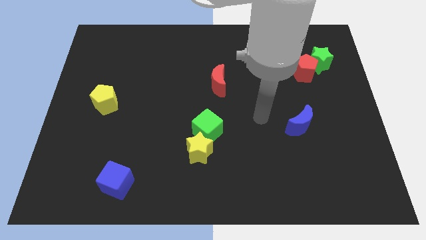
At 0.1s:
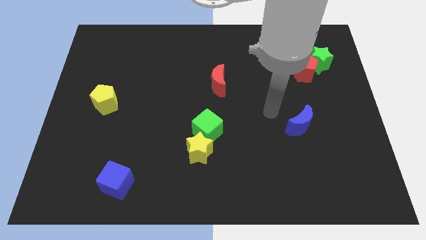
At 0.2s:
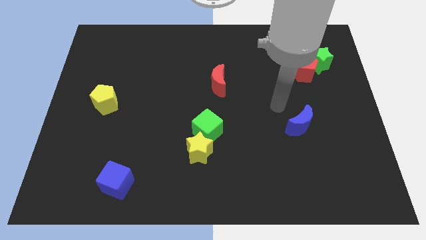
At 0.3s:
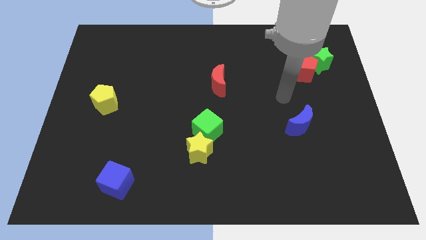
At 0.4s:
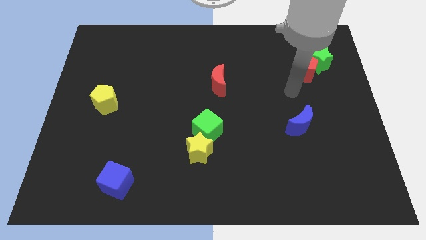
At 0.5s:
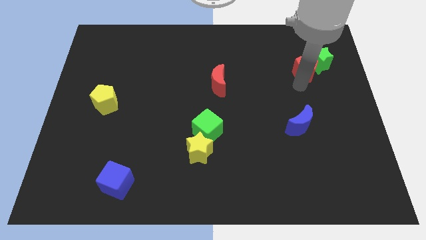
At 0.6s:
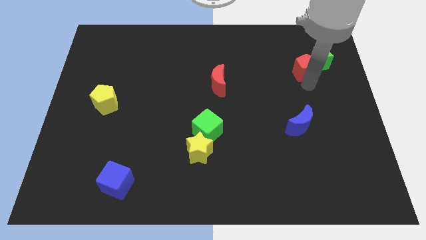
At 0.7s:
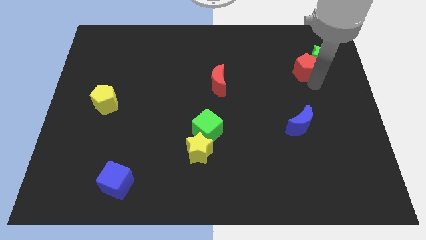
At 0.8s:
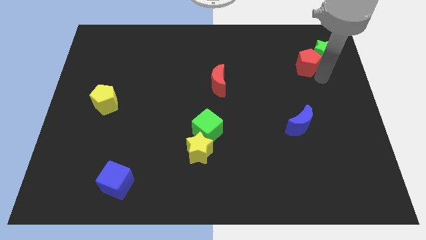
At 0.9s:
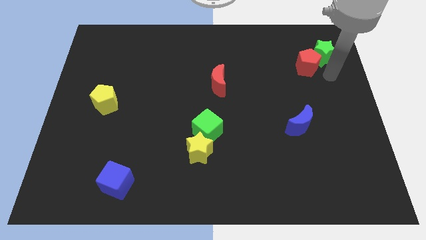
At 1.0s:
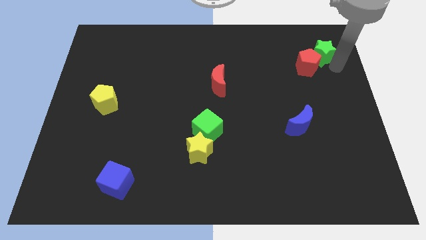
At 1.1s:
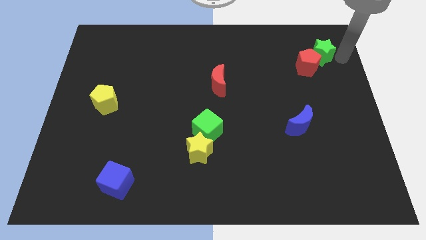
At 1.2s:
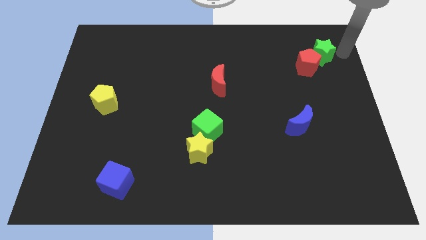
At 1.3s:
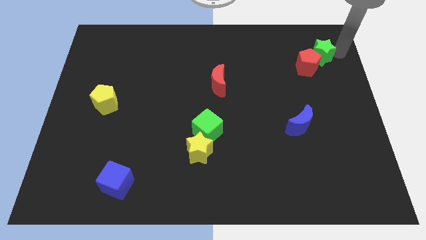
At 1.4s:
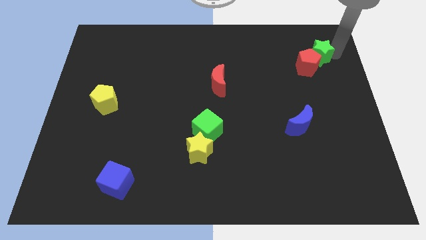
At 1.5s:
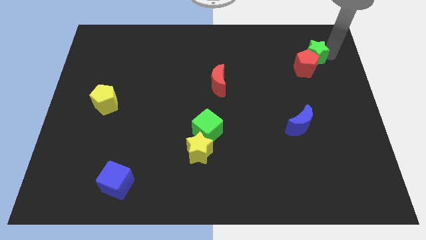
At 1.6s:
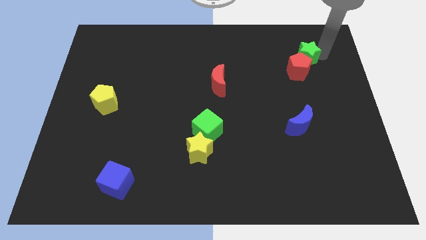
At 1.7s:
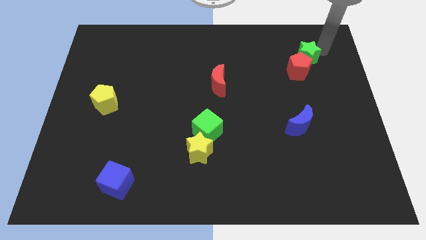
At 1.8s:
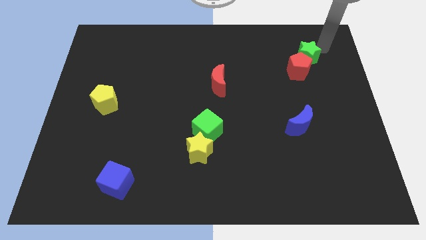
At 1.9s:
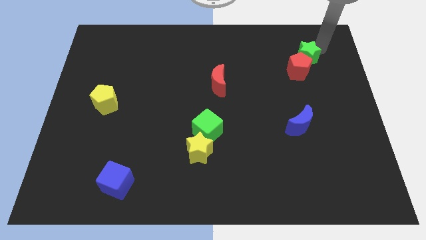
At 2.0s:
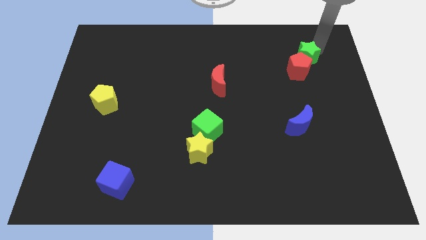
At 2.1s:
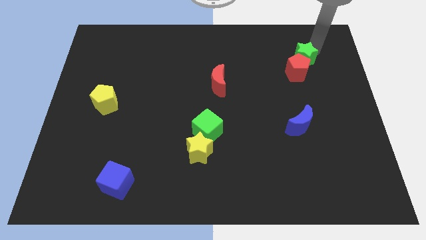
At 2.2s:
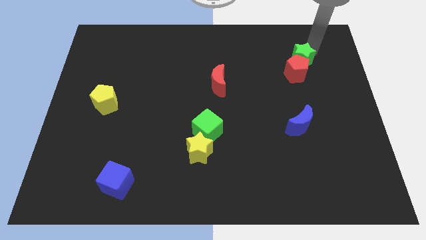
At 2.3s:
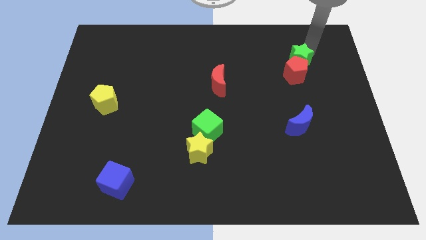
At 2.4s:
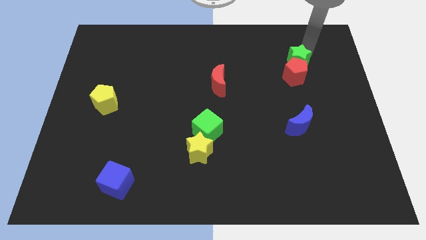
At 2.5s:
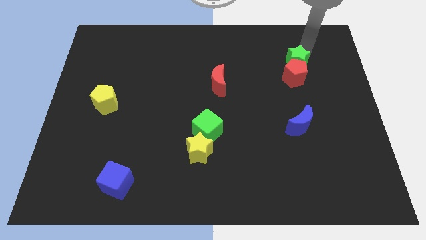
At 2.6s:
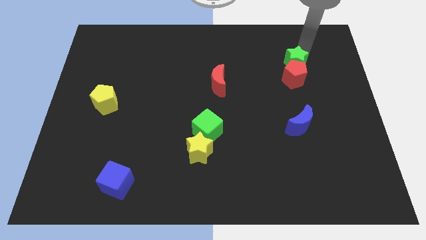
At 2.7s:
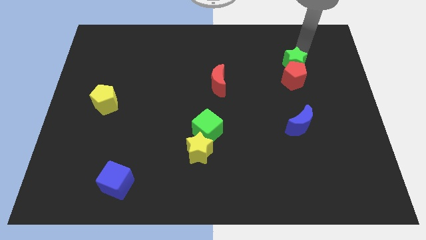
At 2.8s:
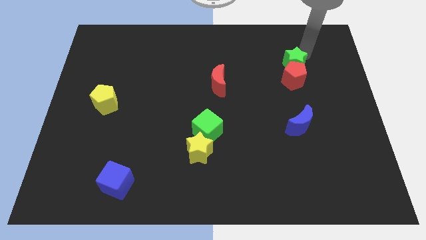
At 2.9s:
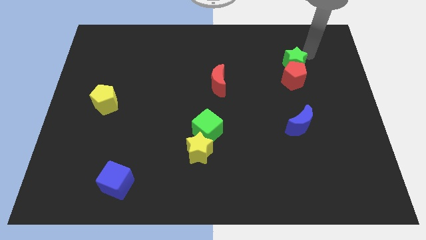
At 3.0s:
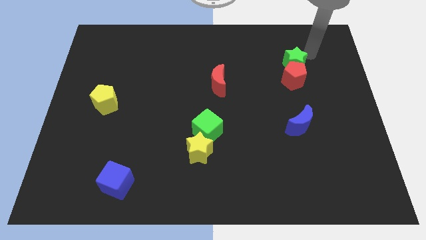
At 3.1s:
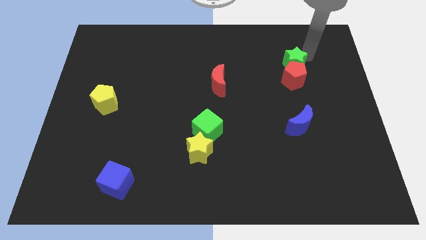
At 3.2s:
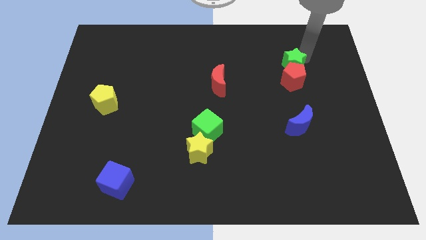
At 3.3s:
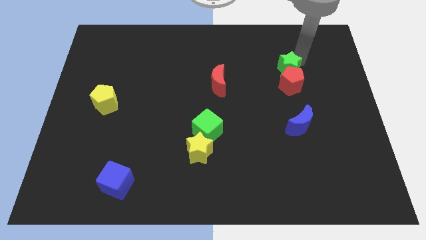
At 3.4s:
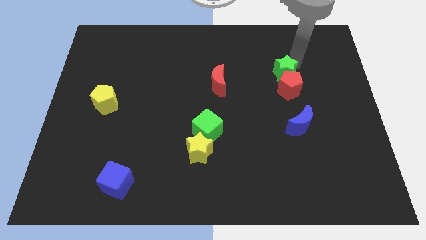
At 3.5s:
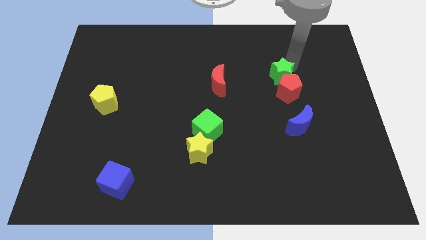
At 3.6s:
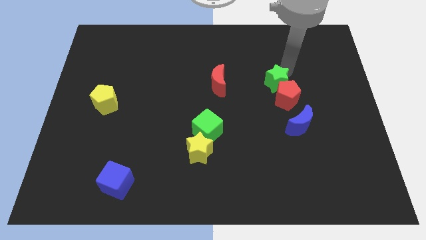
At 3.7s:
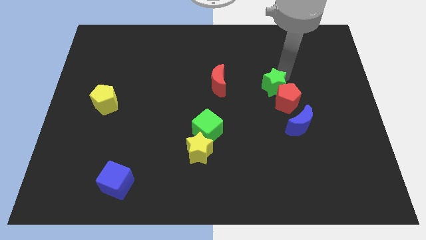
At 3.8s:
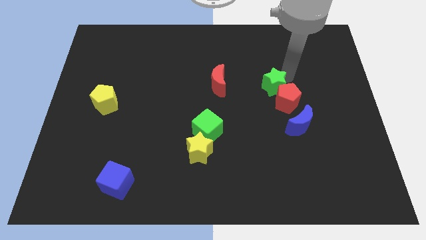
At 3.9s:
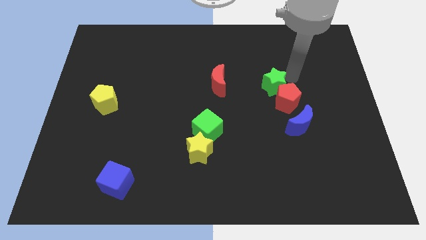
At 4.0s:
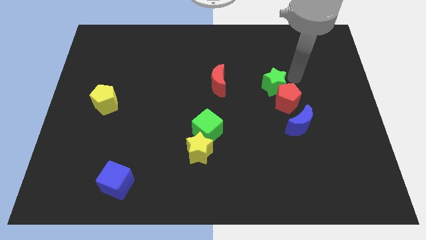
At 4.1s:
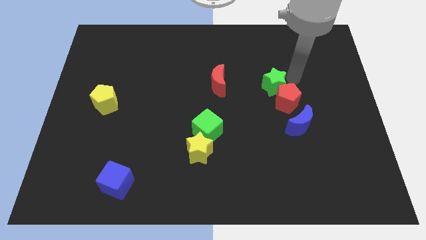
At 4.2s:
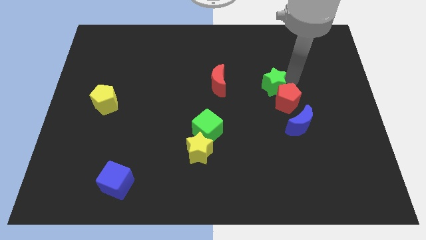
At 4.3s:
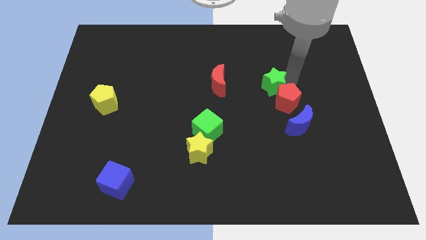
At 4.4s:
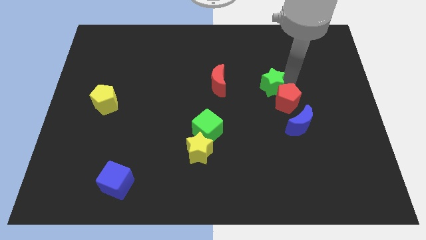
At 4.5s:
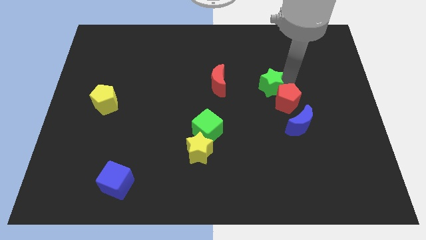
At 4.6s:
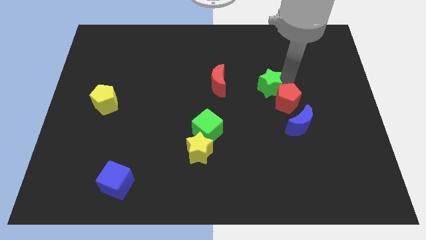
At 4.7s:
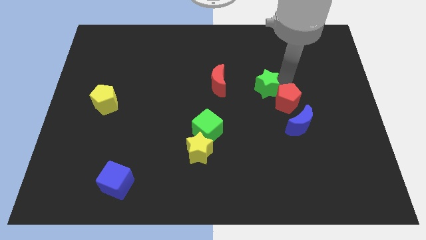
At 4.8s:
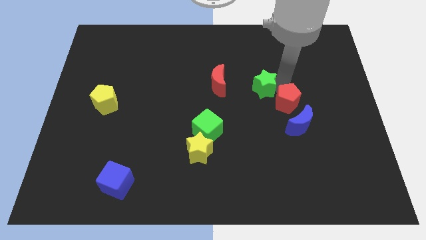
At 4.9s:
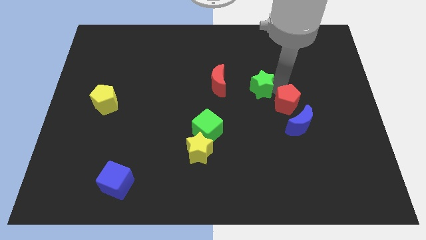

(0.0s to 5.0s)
push the green star to the center

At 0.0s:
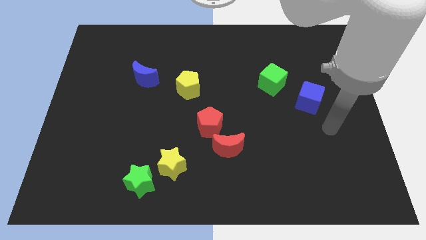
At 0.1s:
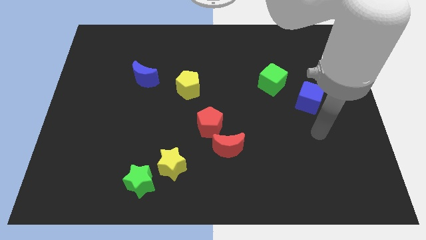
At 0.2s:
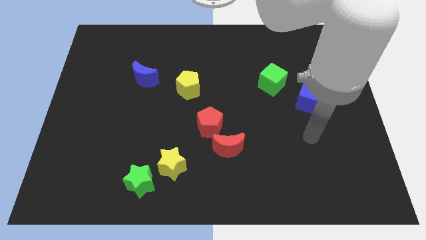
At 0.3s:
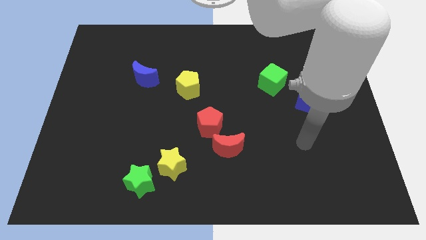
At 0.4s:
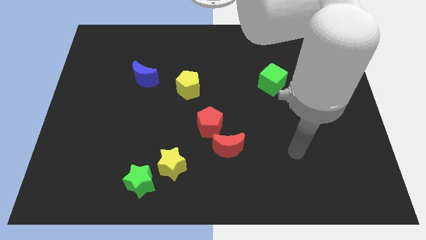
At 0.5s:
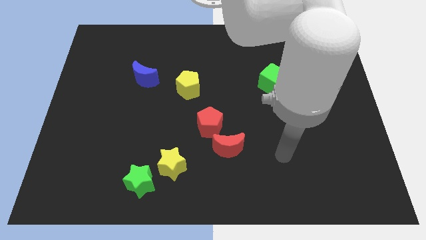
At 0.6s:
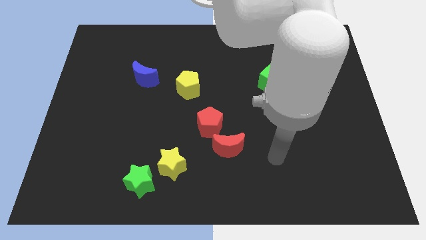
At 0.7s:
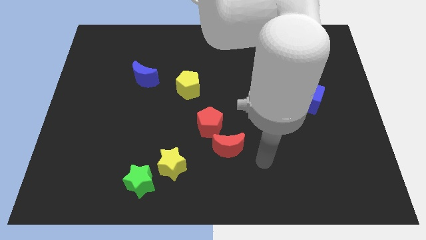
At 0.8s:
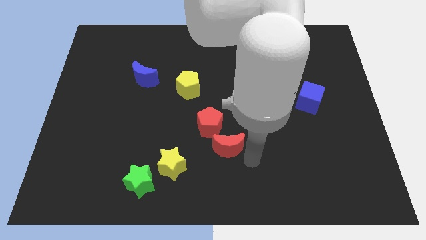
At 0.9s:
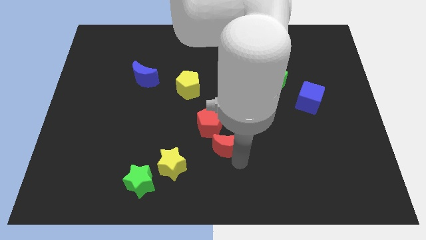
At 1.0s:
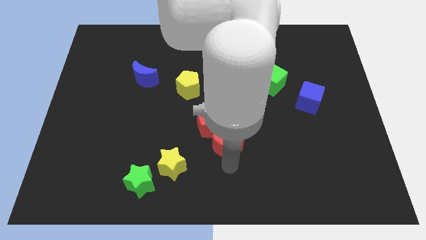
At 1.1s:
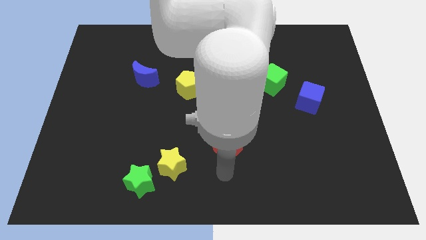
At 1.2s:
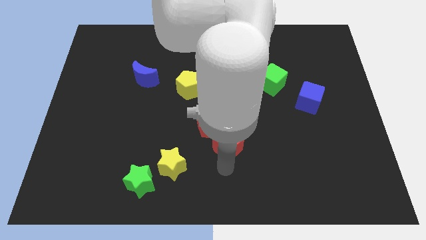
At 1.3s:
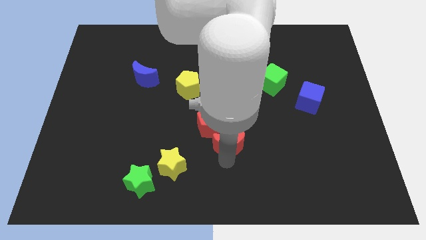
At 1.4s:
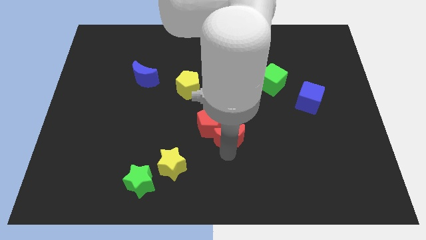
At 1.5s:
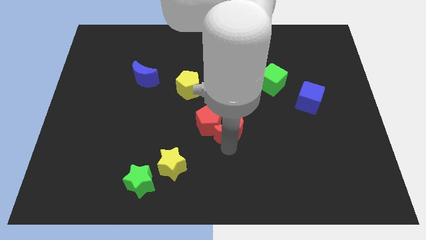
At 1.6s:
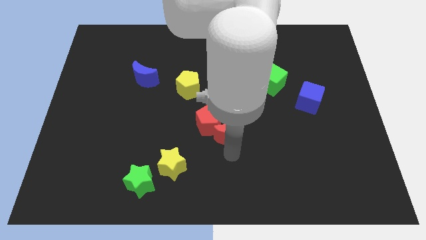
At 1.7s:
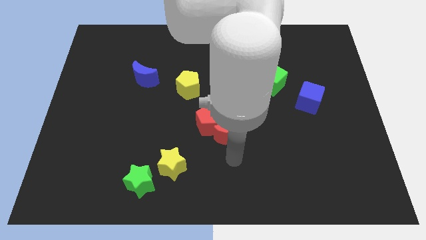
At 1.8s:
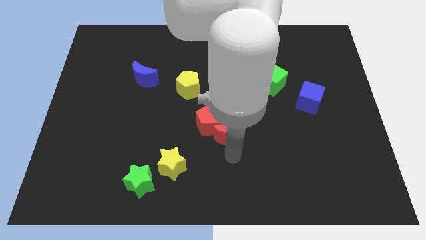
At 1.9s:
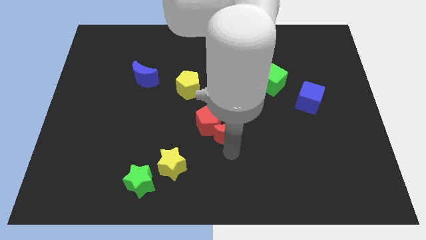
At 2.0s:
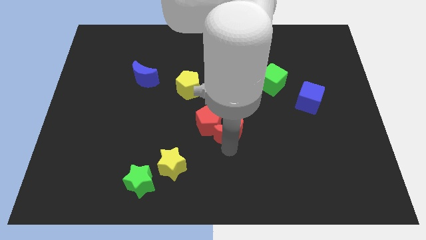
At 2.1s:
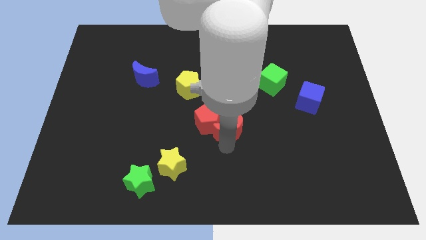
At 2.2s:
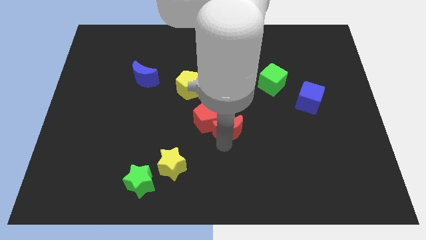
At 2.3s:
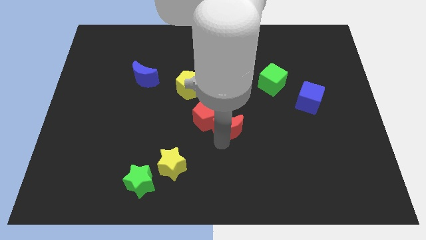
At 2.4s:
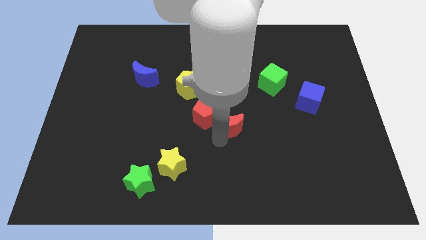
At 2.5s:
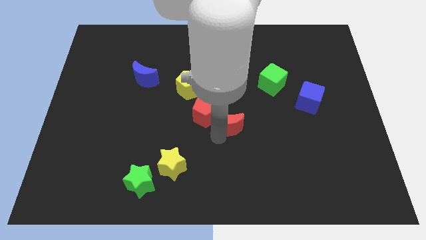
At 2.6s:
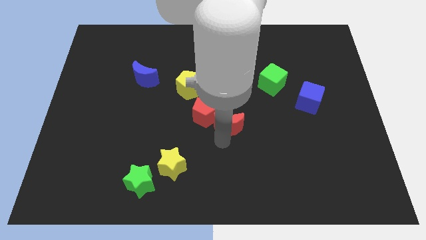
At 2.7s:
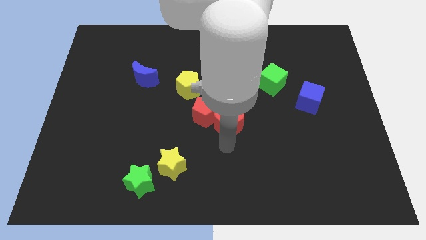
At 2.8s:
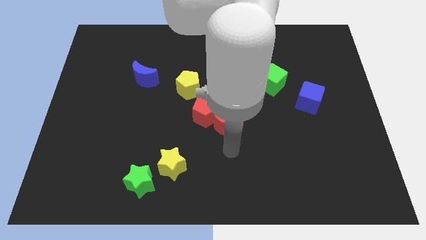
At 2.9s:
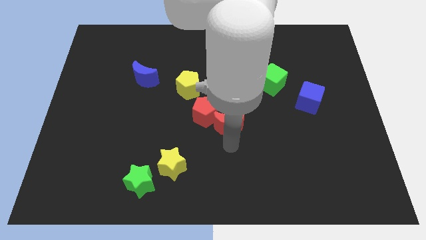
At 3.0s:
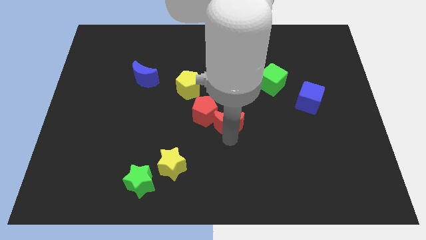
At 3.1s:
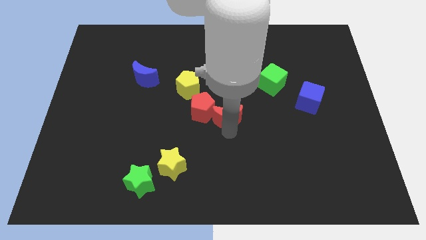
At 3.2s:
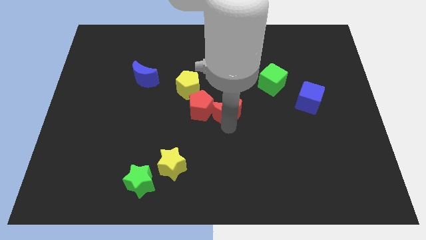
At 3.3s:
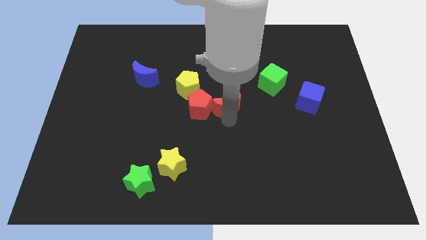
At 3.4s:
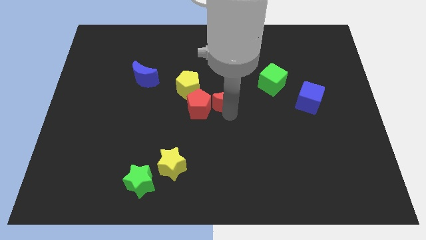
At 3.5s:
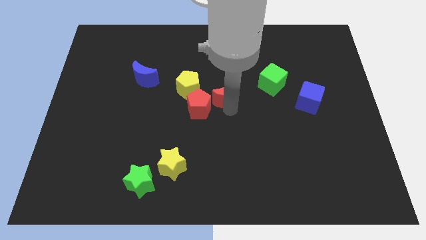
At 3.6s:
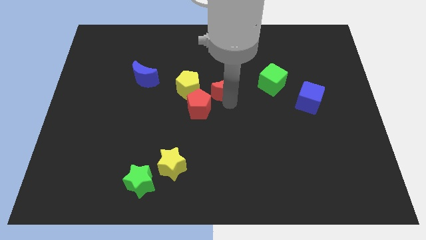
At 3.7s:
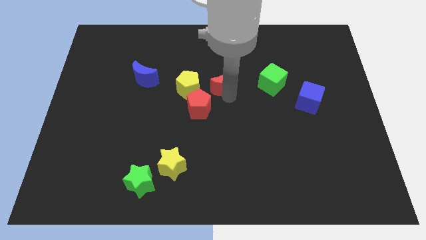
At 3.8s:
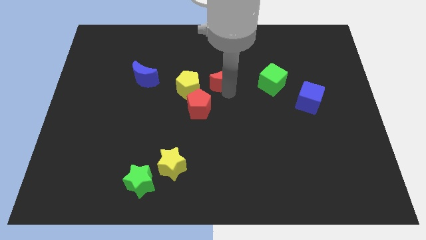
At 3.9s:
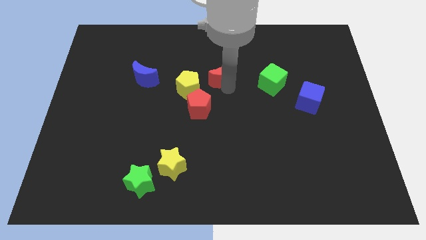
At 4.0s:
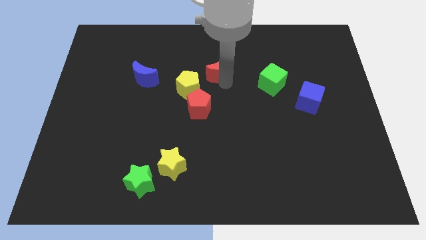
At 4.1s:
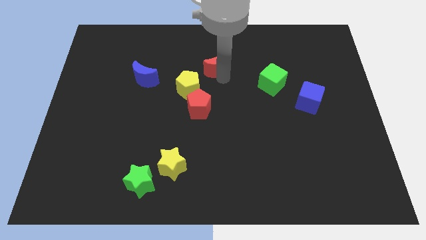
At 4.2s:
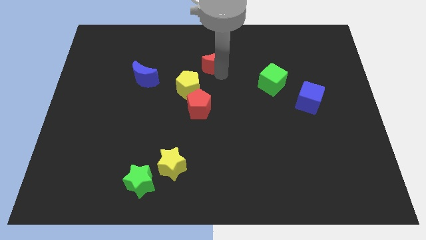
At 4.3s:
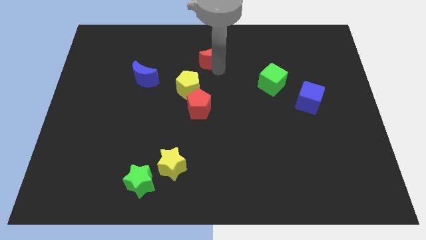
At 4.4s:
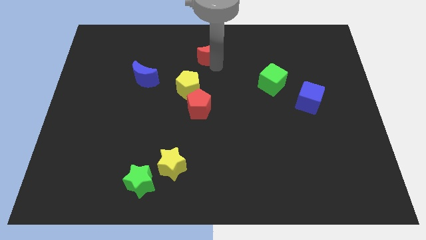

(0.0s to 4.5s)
slide the red moon to the top side
